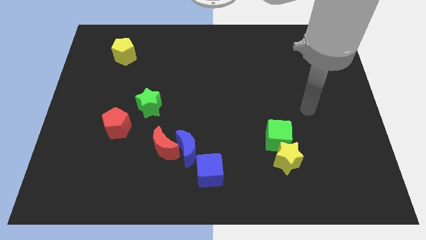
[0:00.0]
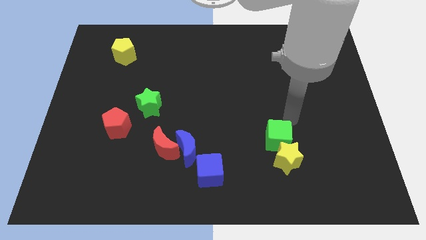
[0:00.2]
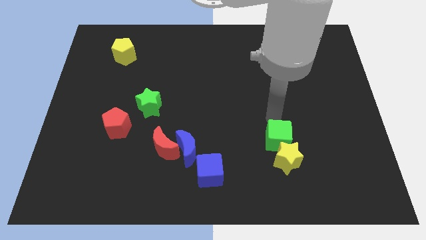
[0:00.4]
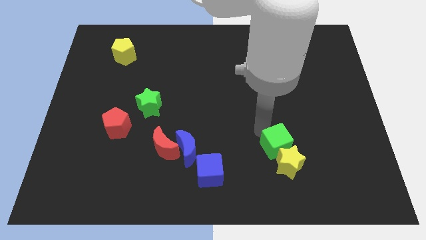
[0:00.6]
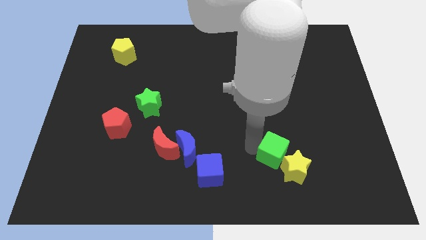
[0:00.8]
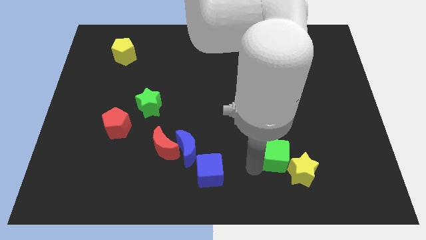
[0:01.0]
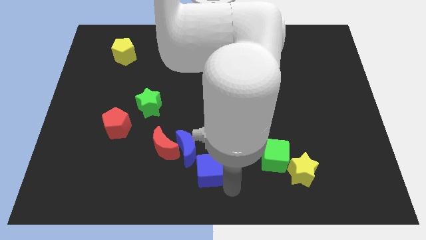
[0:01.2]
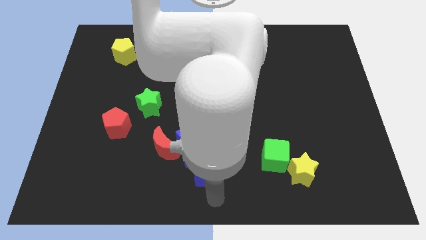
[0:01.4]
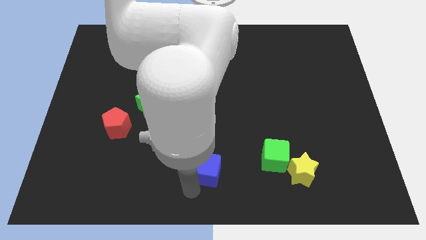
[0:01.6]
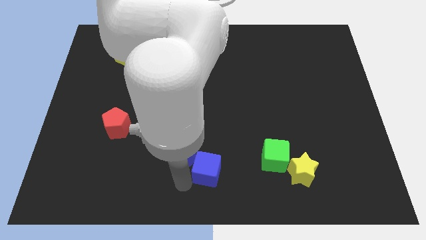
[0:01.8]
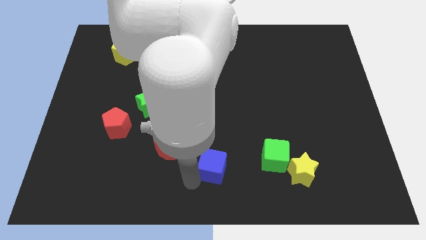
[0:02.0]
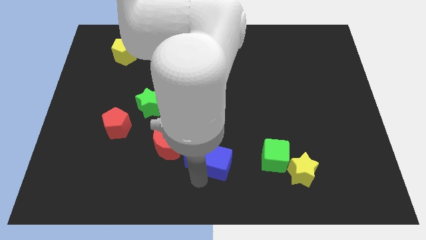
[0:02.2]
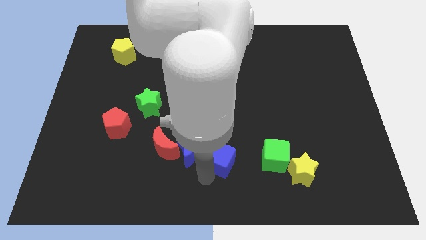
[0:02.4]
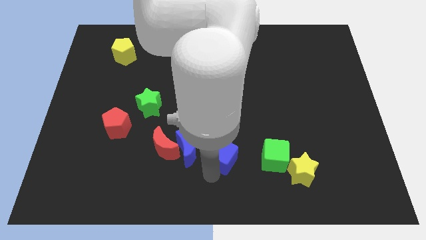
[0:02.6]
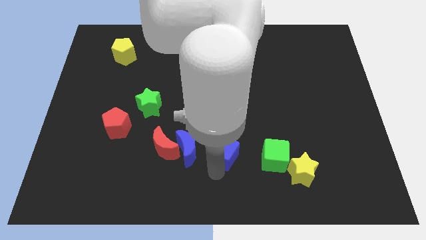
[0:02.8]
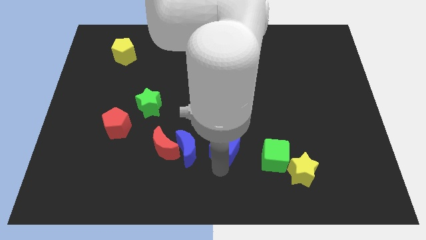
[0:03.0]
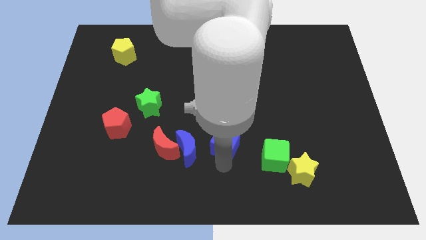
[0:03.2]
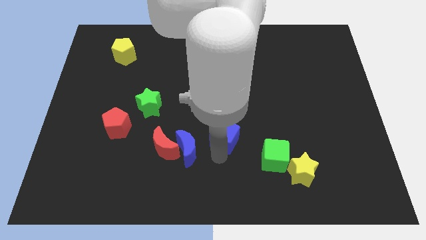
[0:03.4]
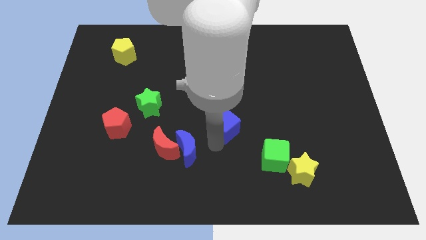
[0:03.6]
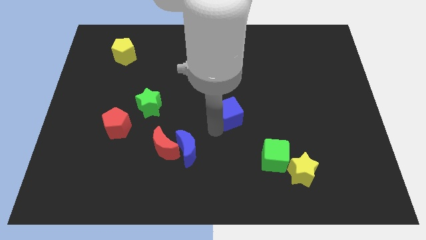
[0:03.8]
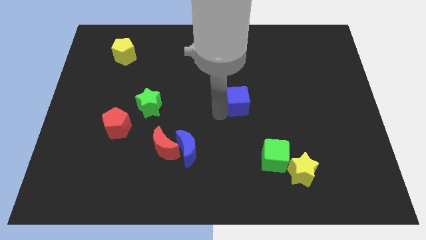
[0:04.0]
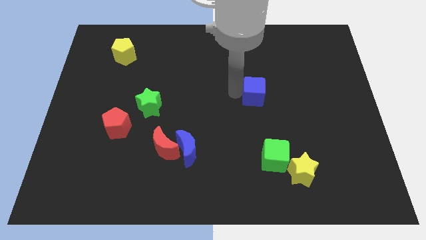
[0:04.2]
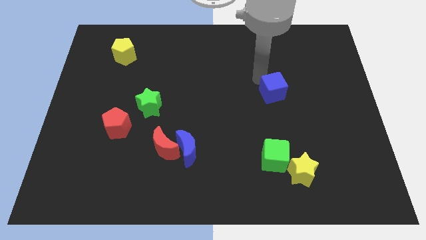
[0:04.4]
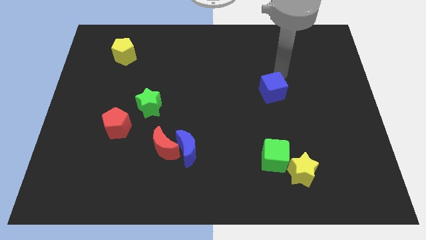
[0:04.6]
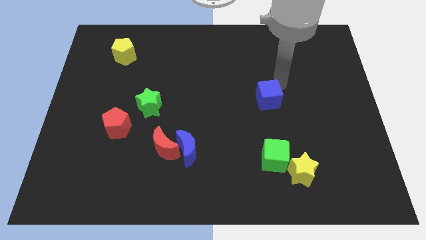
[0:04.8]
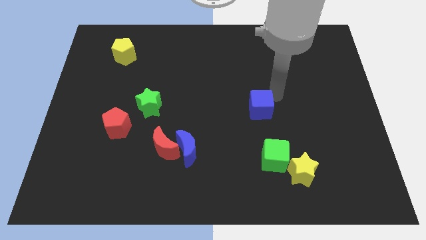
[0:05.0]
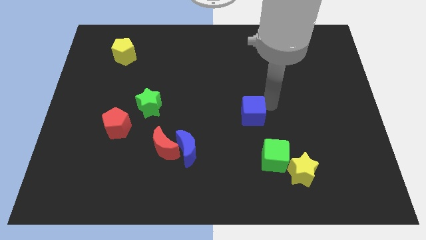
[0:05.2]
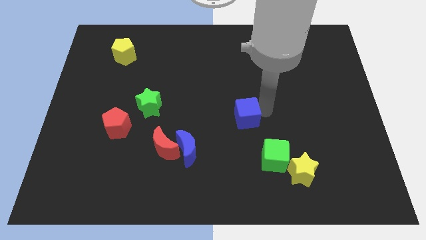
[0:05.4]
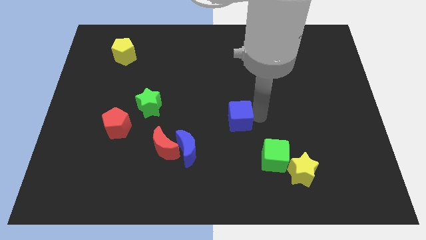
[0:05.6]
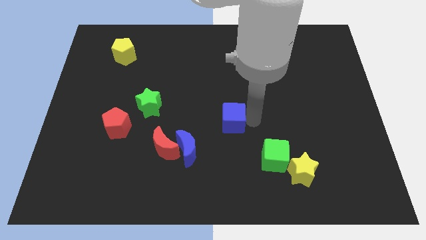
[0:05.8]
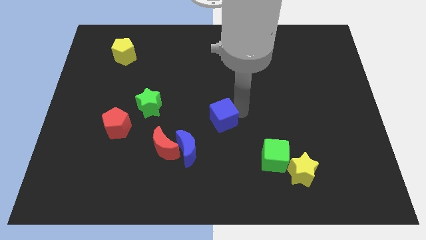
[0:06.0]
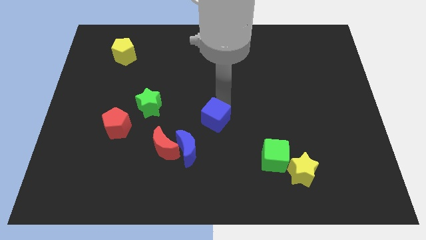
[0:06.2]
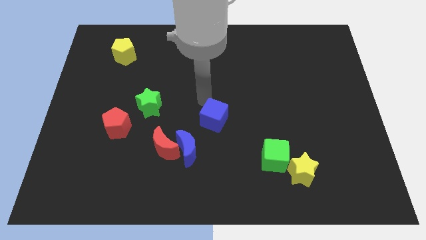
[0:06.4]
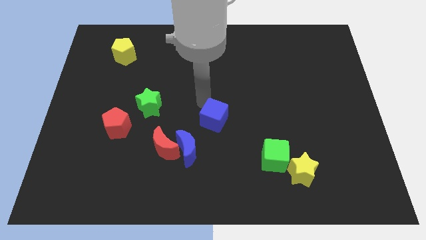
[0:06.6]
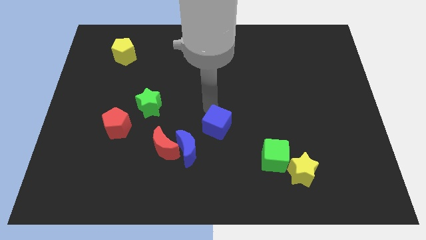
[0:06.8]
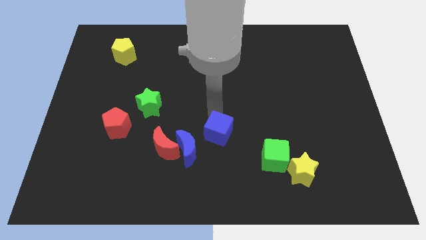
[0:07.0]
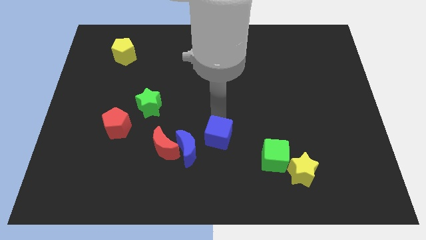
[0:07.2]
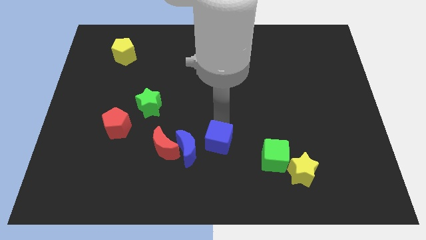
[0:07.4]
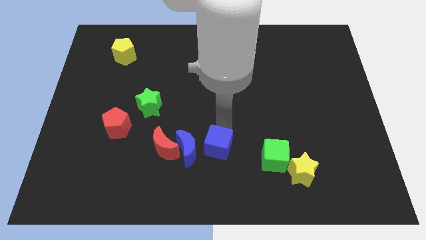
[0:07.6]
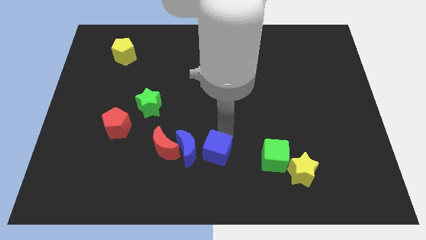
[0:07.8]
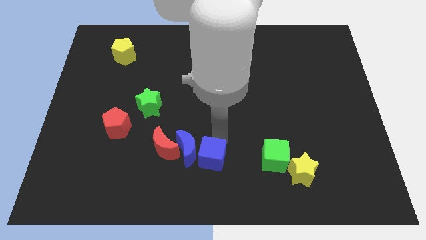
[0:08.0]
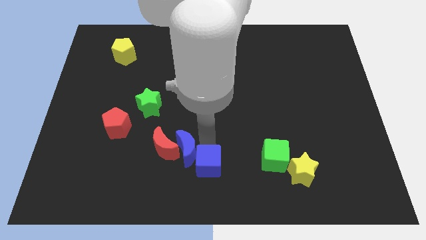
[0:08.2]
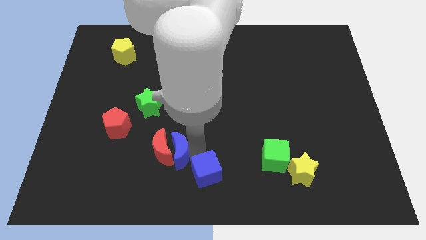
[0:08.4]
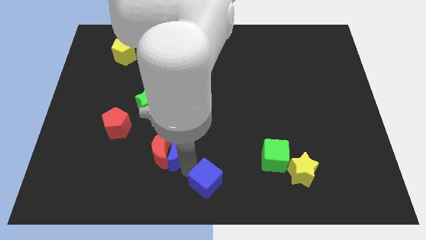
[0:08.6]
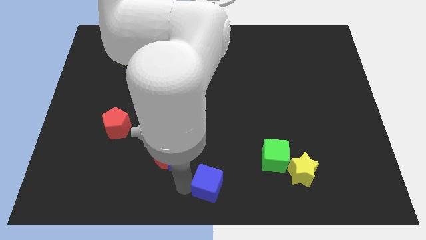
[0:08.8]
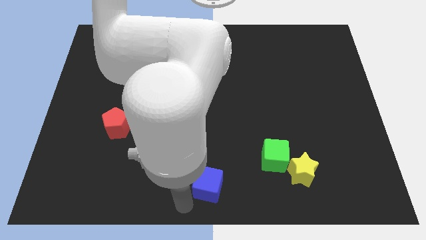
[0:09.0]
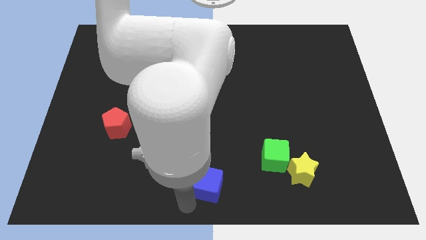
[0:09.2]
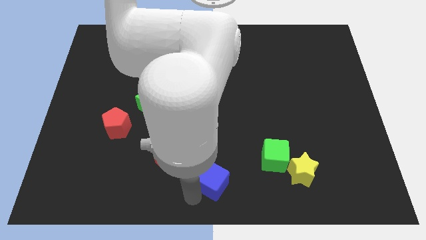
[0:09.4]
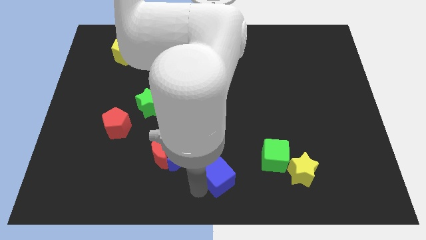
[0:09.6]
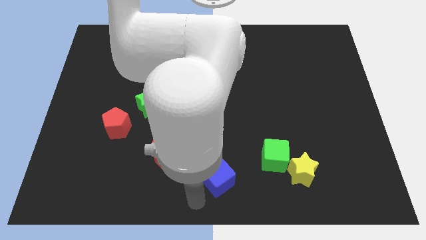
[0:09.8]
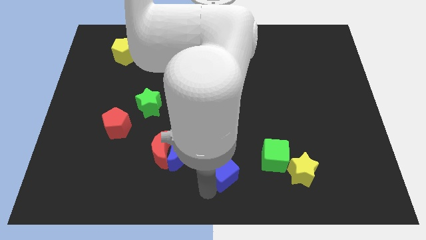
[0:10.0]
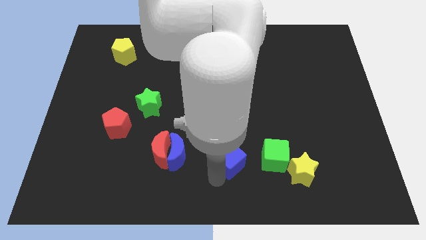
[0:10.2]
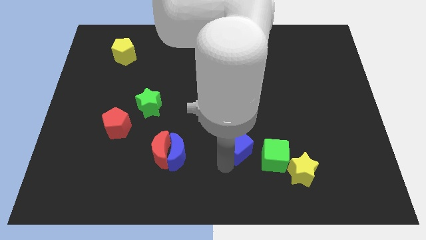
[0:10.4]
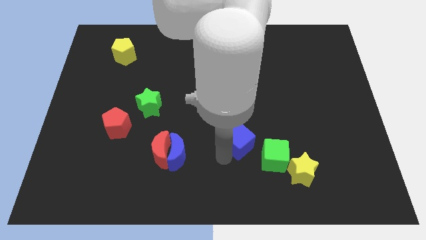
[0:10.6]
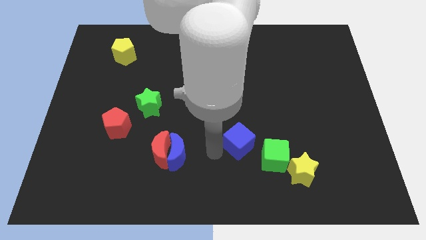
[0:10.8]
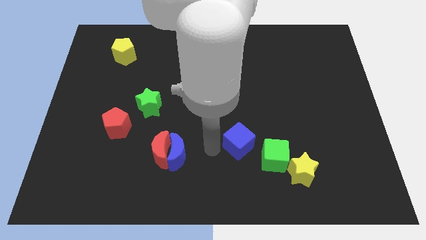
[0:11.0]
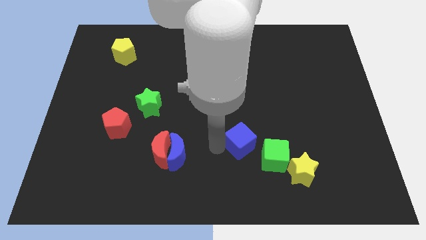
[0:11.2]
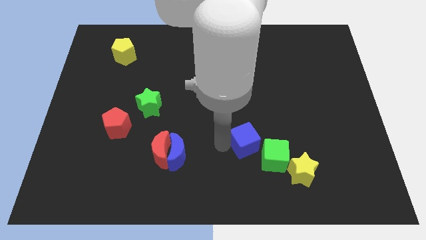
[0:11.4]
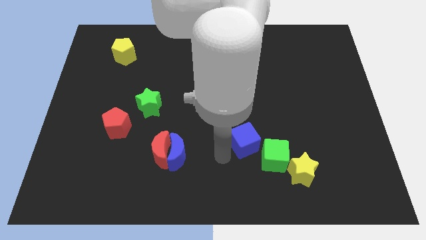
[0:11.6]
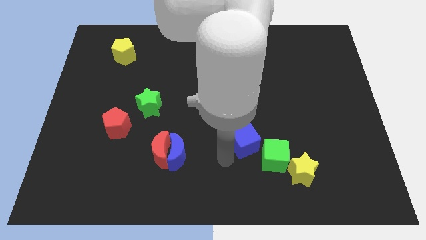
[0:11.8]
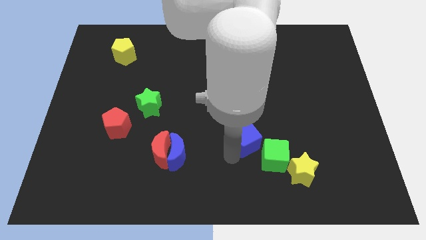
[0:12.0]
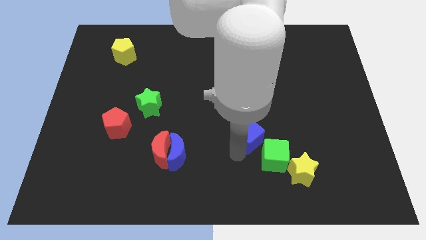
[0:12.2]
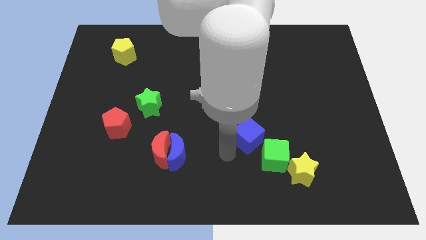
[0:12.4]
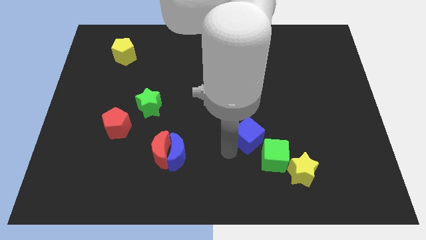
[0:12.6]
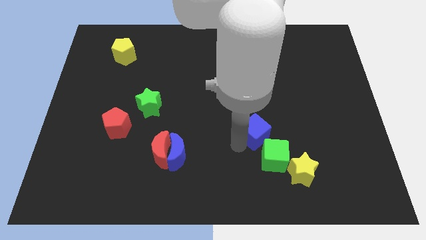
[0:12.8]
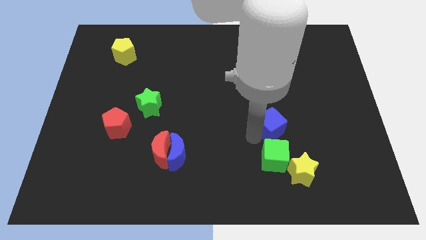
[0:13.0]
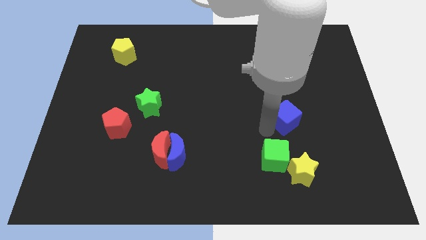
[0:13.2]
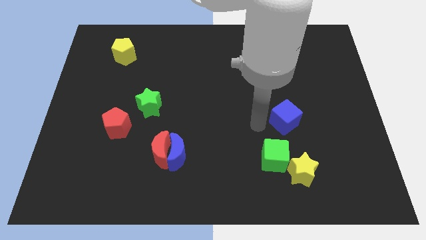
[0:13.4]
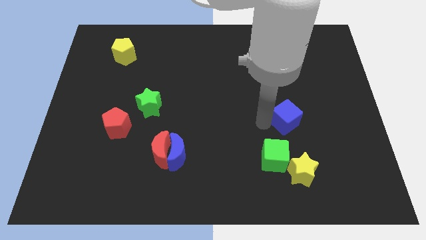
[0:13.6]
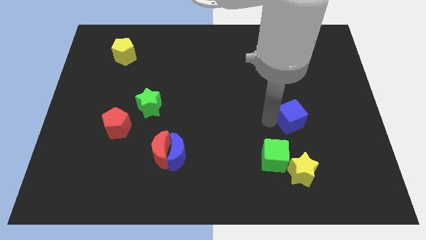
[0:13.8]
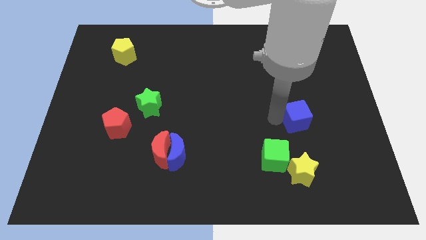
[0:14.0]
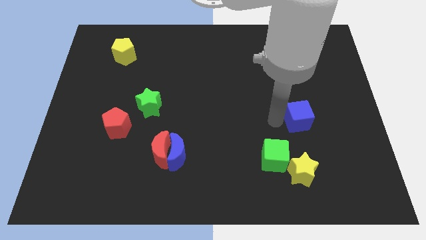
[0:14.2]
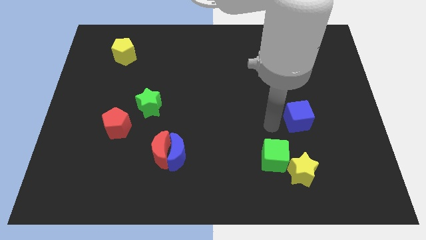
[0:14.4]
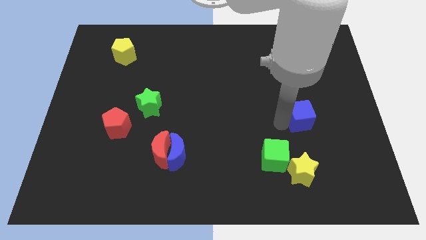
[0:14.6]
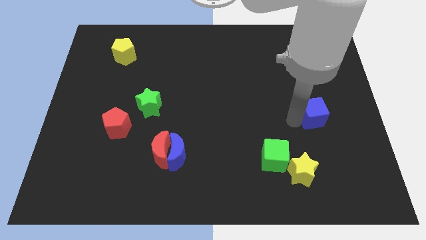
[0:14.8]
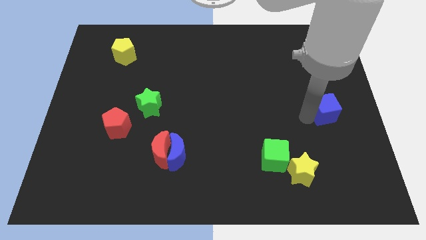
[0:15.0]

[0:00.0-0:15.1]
move the blue cube to the center right

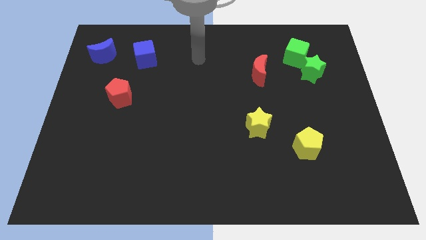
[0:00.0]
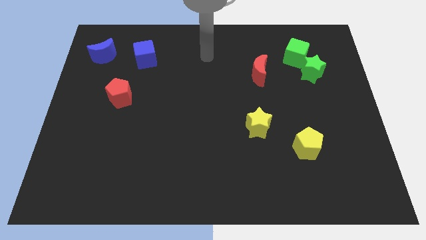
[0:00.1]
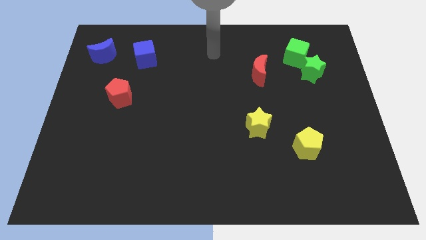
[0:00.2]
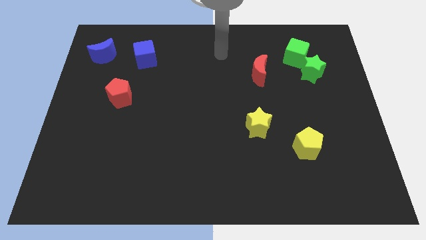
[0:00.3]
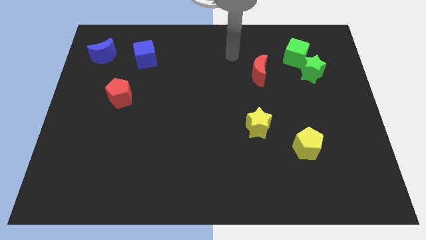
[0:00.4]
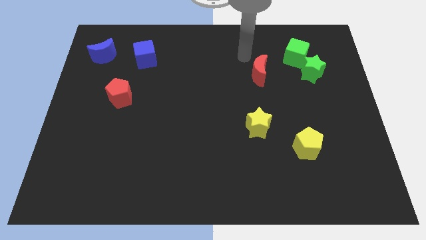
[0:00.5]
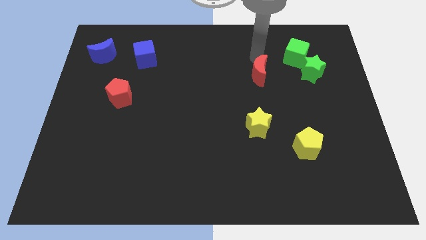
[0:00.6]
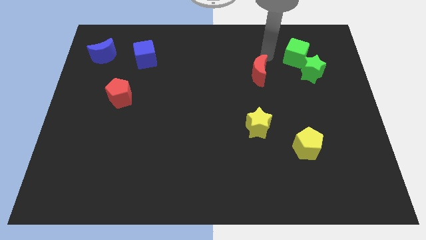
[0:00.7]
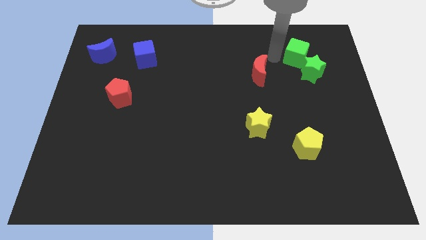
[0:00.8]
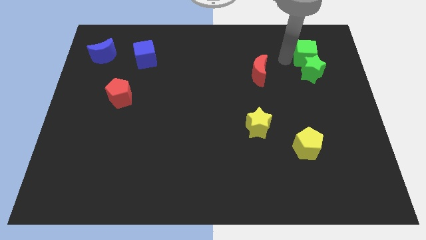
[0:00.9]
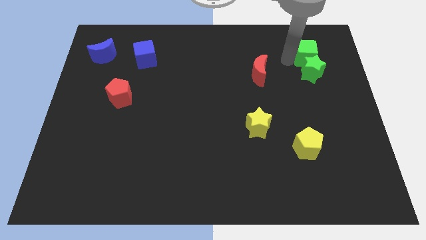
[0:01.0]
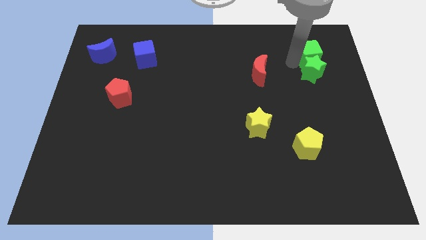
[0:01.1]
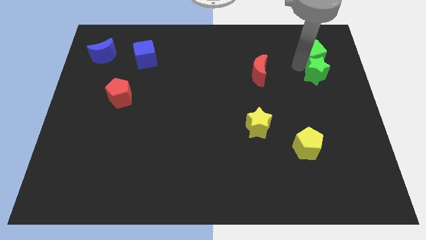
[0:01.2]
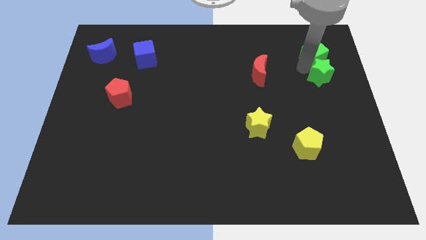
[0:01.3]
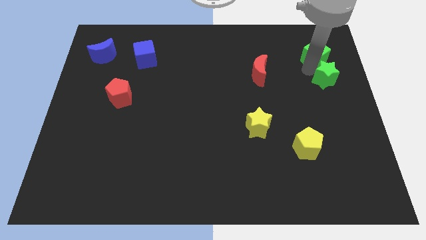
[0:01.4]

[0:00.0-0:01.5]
slide the green star to the right side
